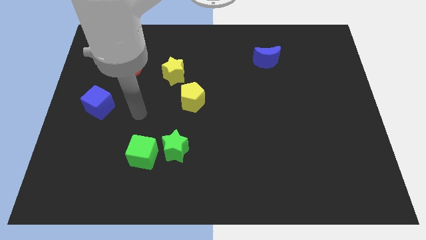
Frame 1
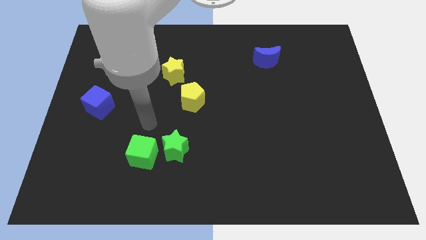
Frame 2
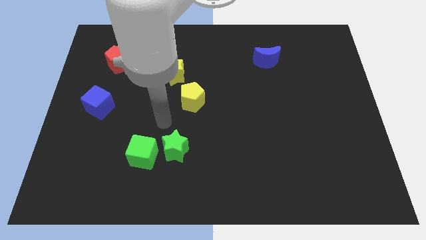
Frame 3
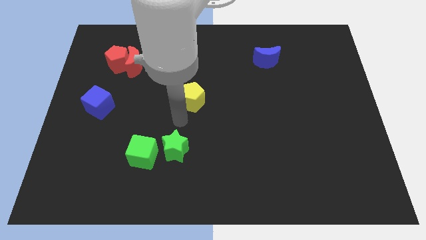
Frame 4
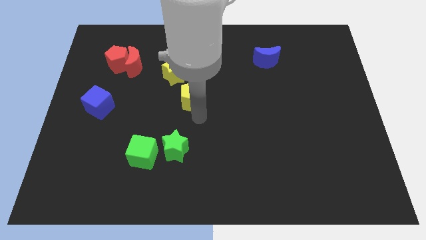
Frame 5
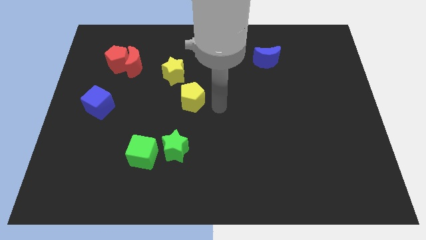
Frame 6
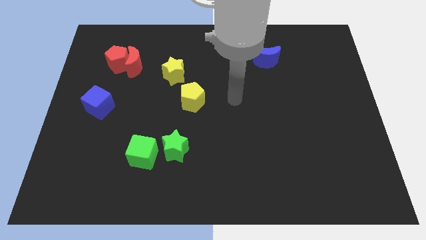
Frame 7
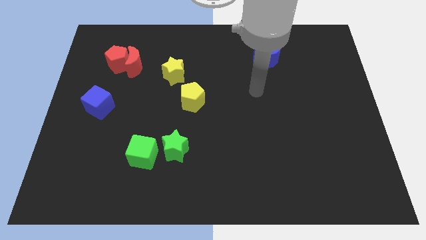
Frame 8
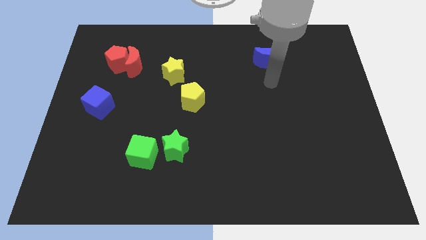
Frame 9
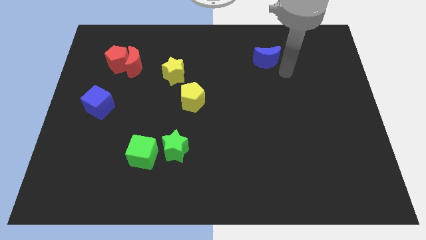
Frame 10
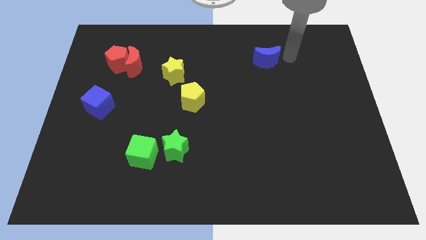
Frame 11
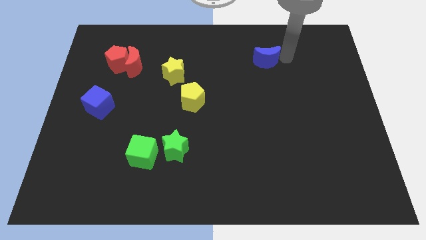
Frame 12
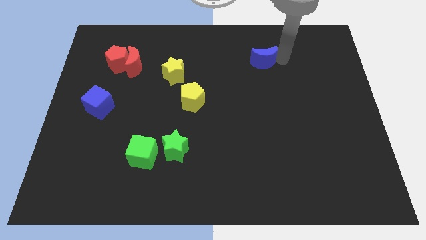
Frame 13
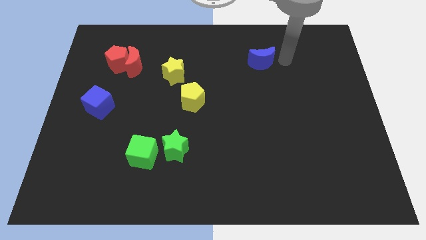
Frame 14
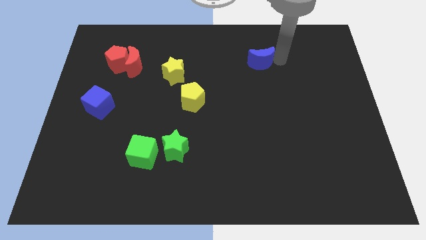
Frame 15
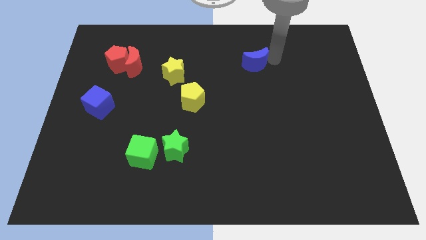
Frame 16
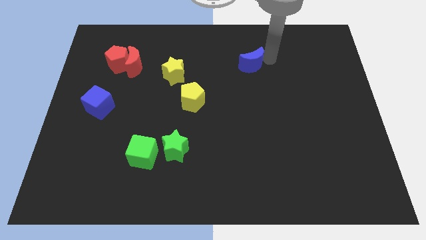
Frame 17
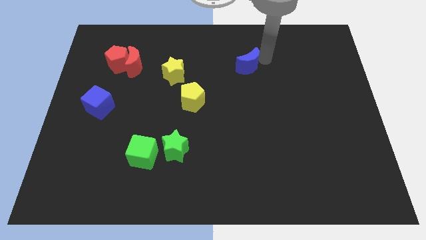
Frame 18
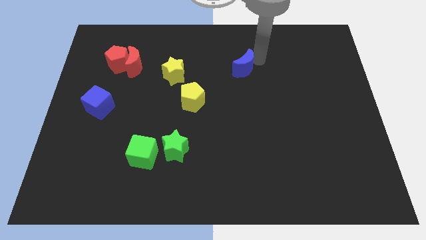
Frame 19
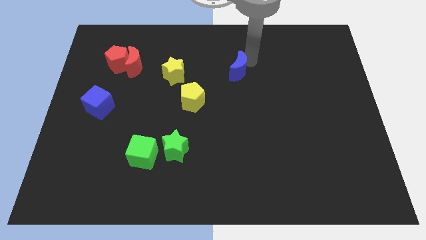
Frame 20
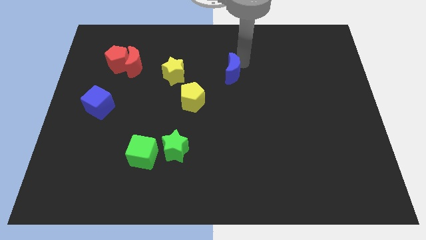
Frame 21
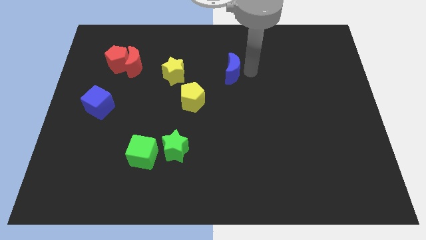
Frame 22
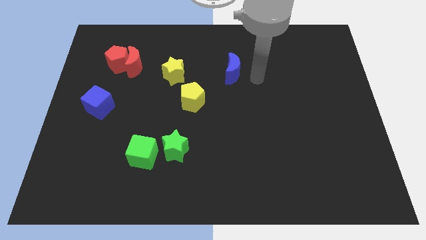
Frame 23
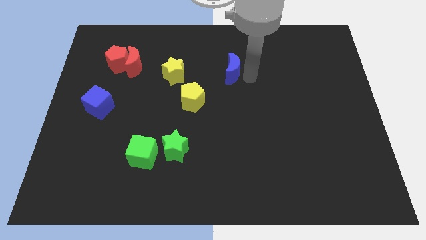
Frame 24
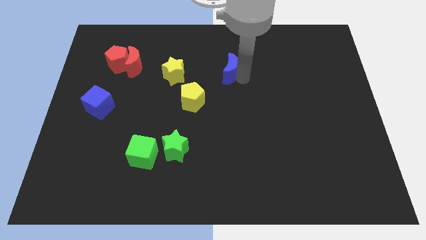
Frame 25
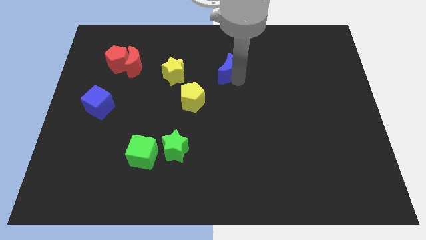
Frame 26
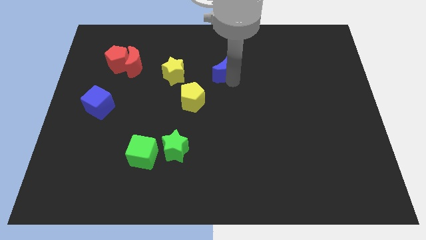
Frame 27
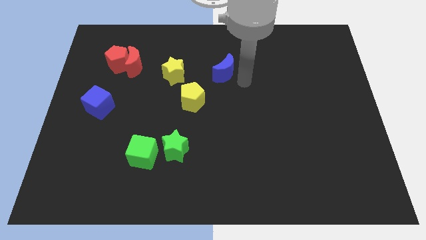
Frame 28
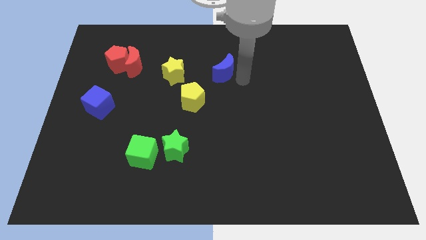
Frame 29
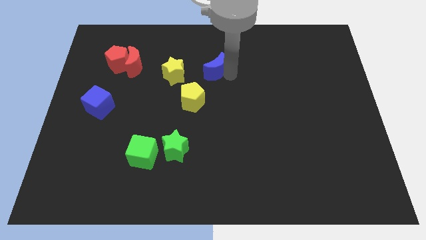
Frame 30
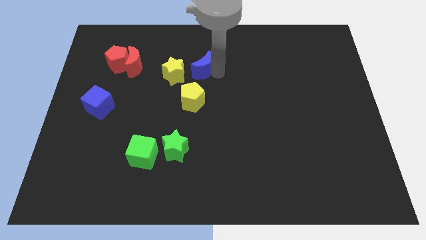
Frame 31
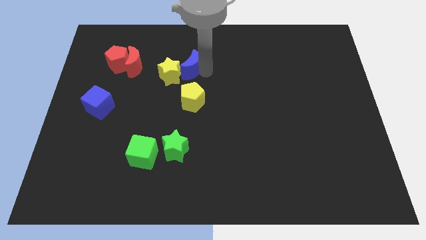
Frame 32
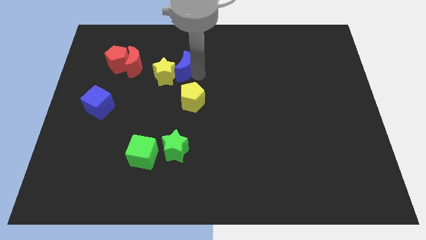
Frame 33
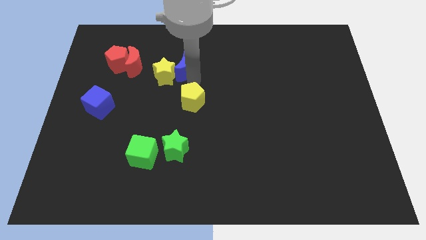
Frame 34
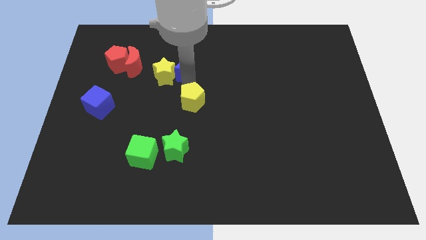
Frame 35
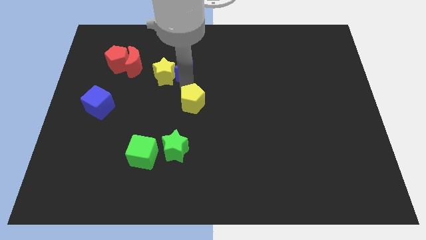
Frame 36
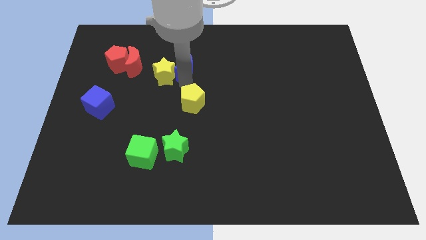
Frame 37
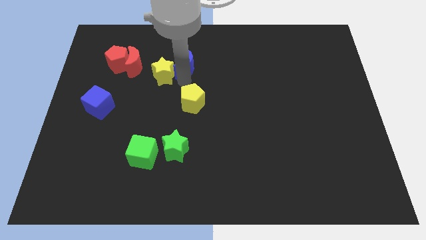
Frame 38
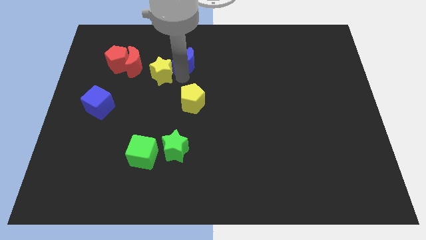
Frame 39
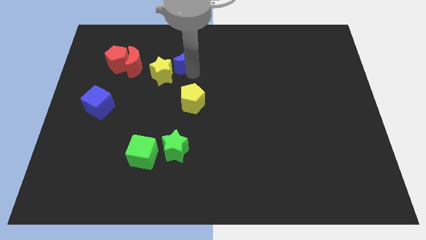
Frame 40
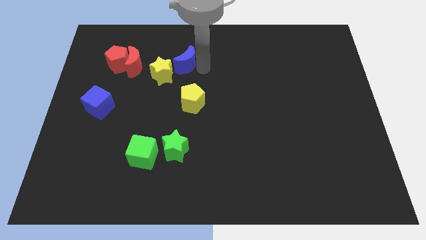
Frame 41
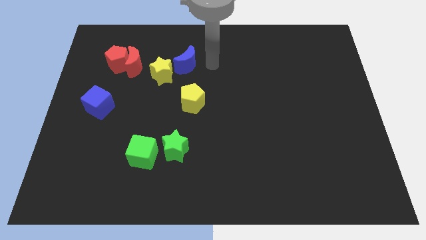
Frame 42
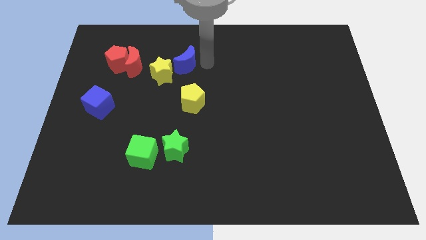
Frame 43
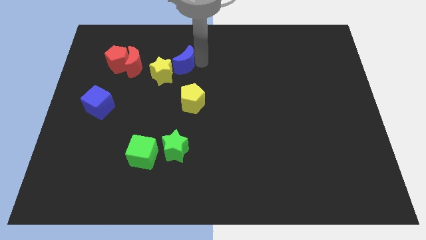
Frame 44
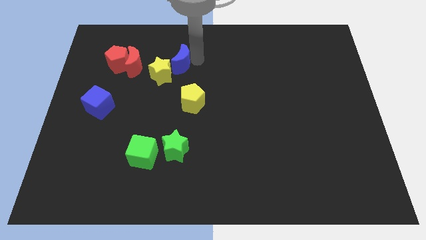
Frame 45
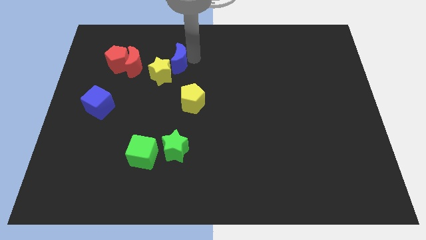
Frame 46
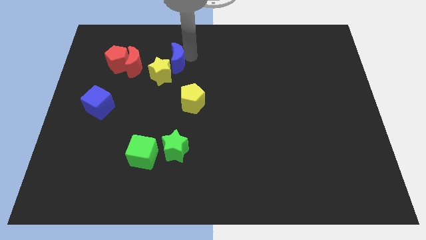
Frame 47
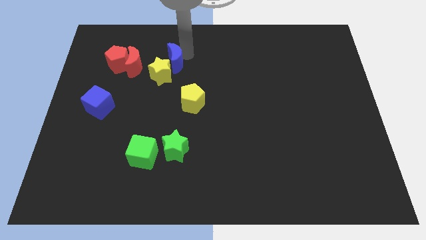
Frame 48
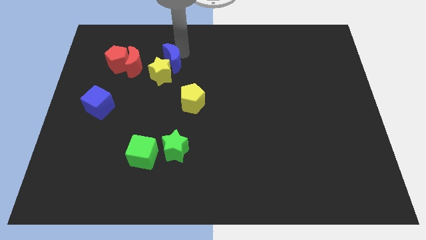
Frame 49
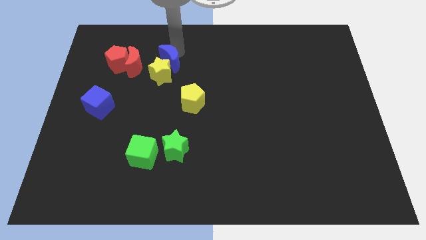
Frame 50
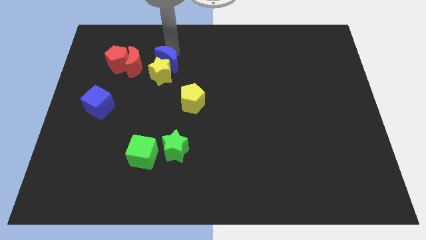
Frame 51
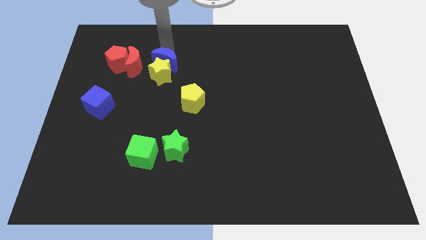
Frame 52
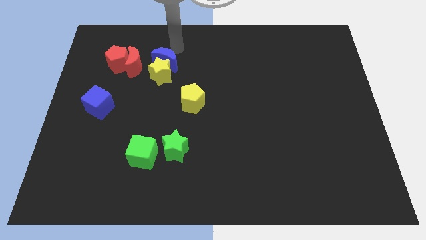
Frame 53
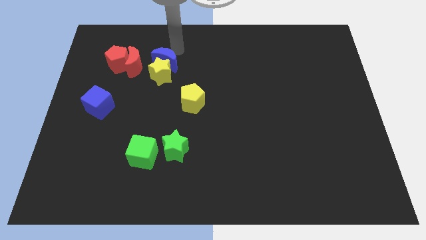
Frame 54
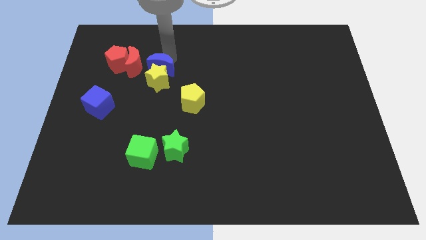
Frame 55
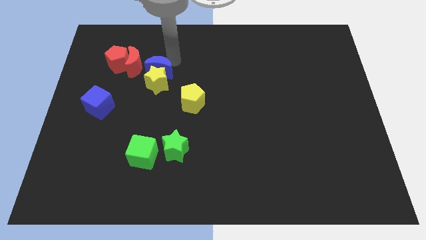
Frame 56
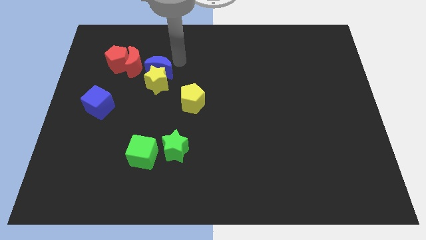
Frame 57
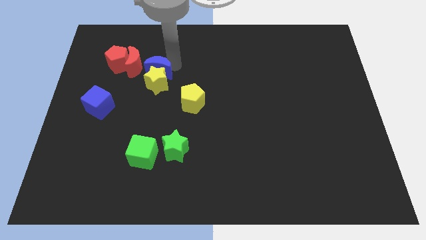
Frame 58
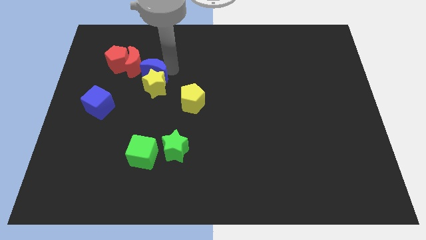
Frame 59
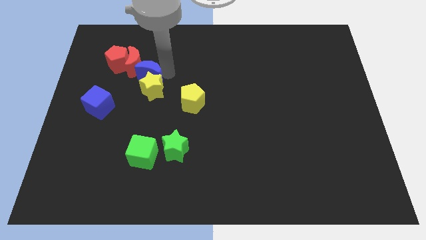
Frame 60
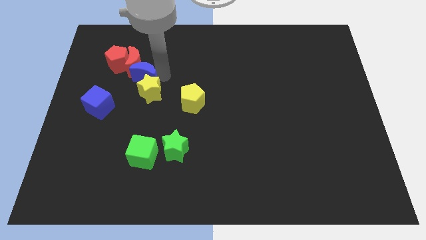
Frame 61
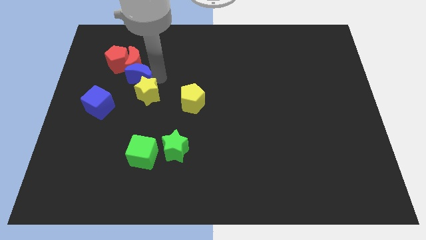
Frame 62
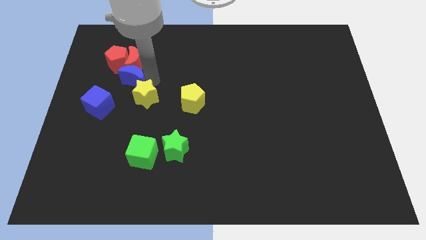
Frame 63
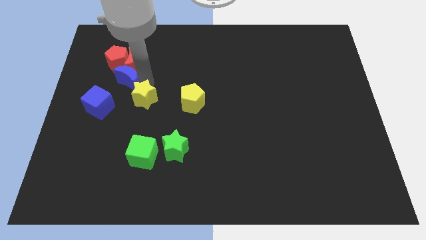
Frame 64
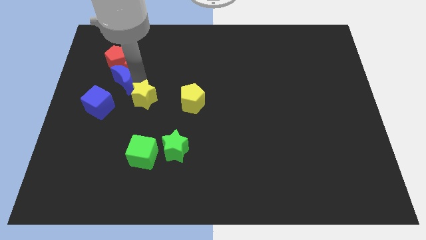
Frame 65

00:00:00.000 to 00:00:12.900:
put the blue moon to the top of the blue cube
